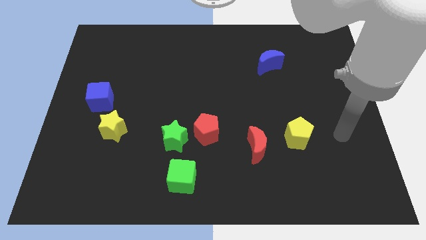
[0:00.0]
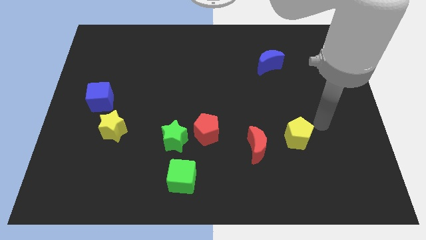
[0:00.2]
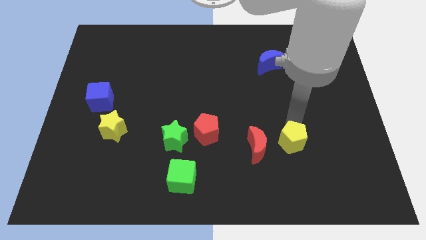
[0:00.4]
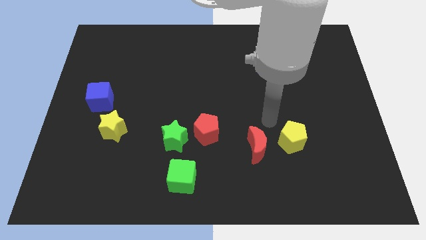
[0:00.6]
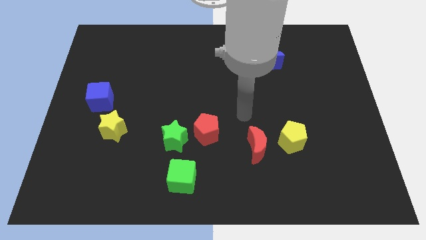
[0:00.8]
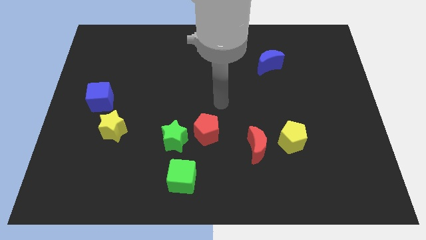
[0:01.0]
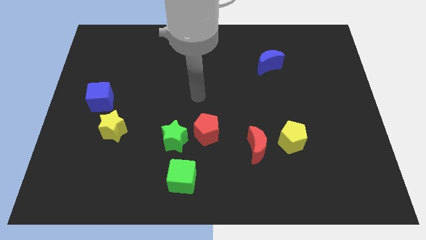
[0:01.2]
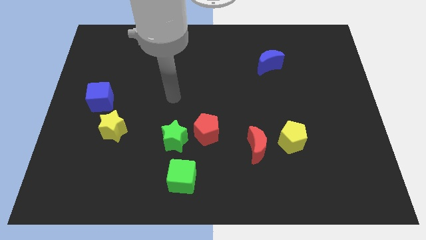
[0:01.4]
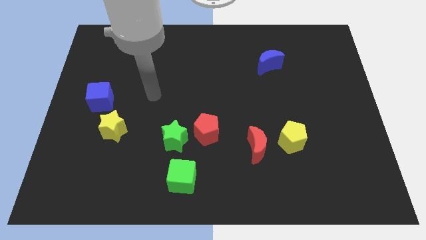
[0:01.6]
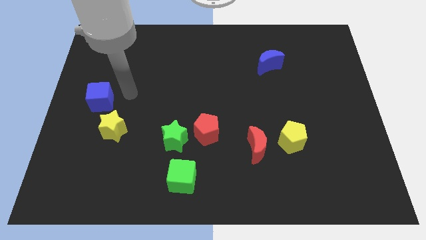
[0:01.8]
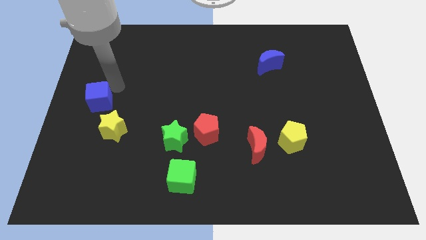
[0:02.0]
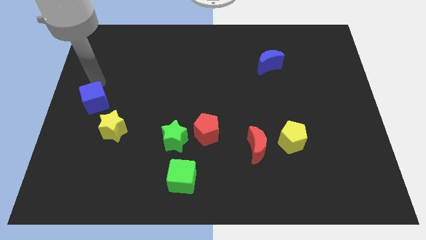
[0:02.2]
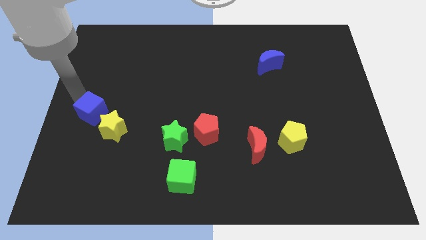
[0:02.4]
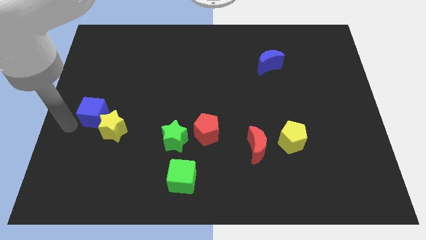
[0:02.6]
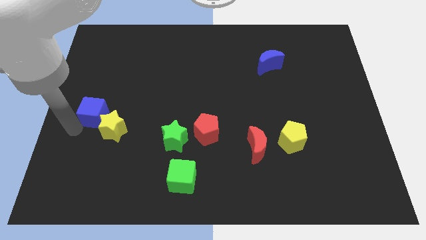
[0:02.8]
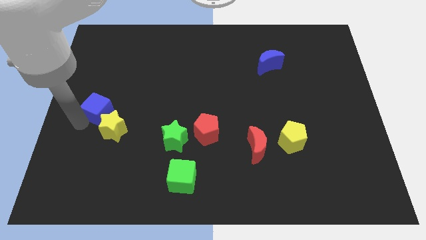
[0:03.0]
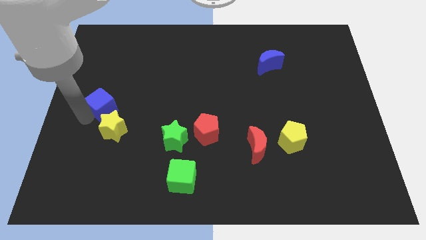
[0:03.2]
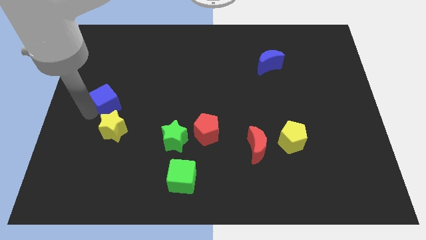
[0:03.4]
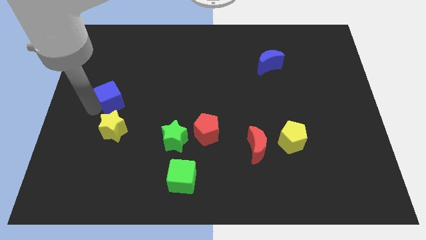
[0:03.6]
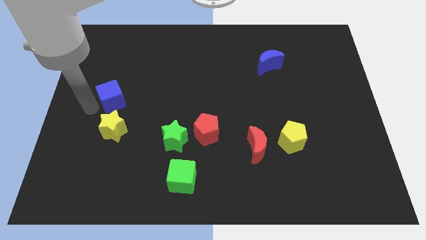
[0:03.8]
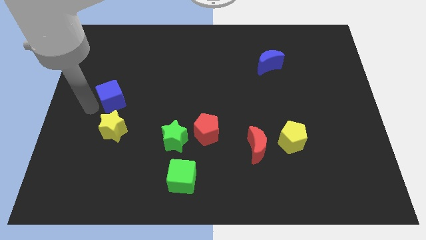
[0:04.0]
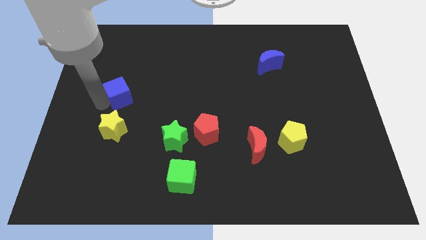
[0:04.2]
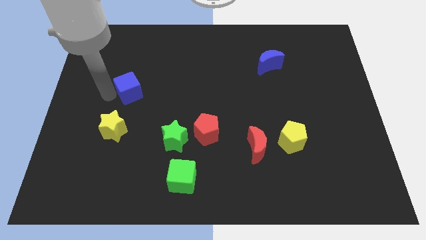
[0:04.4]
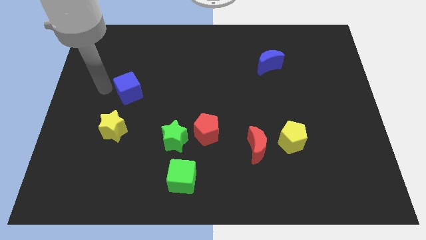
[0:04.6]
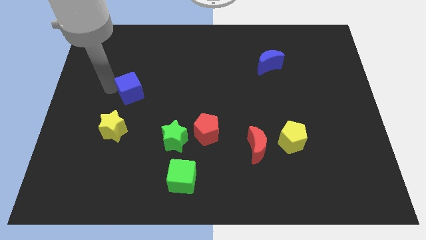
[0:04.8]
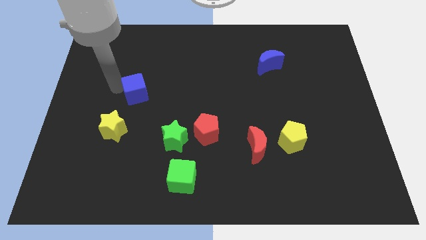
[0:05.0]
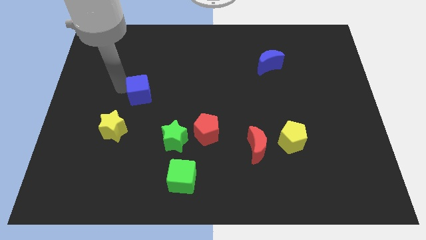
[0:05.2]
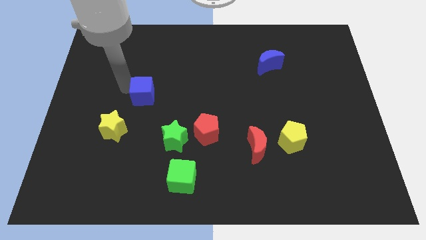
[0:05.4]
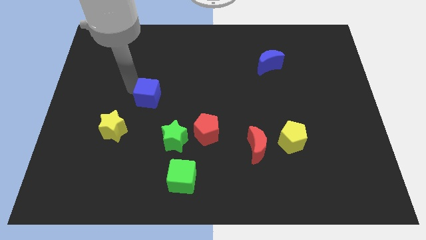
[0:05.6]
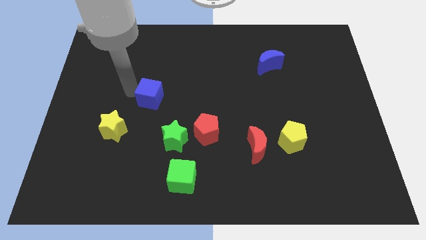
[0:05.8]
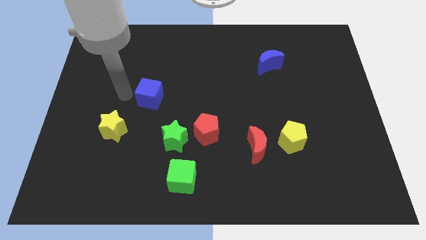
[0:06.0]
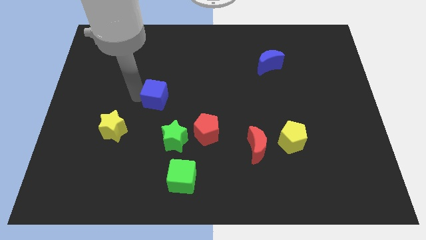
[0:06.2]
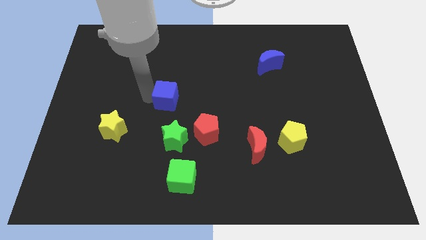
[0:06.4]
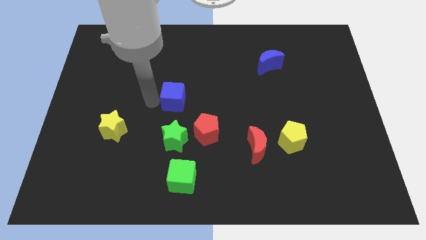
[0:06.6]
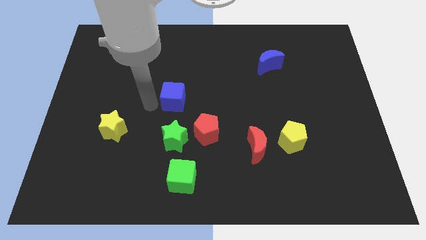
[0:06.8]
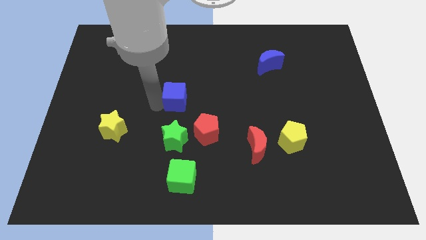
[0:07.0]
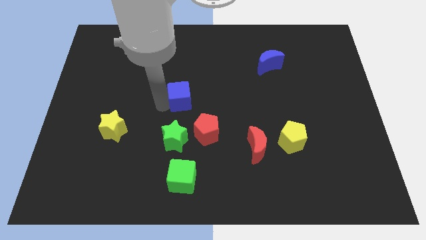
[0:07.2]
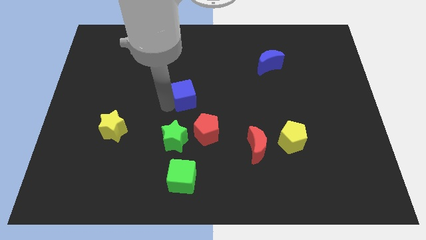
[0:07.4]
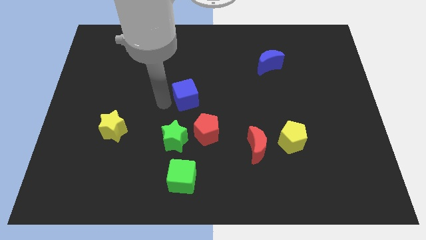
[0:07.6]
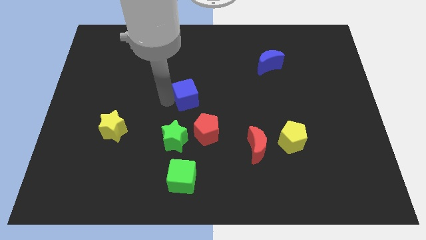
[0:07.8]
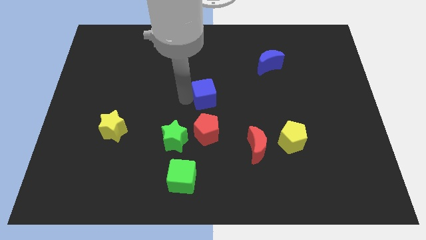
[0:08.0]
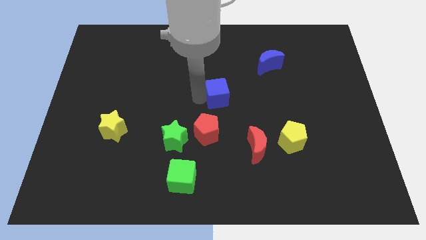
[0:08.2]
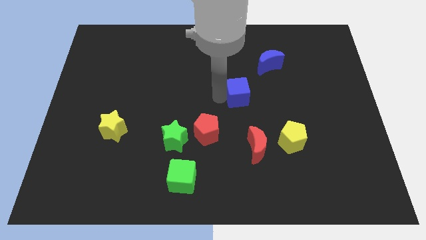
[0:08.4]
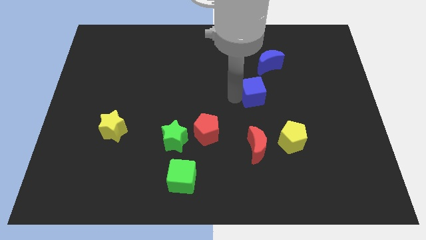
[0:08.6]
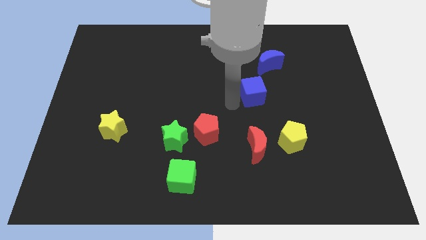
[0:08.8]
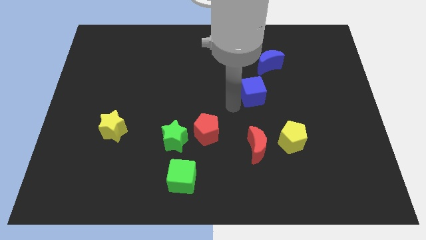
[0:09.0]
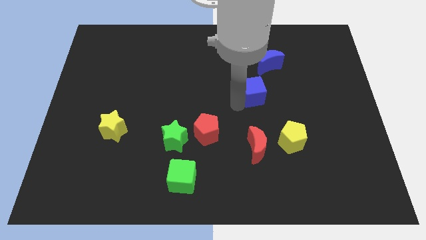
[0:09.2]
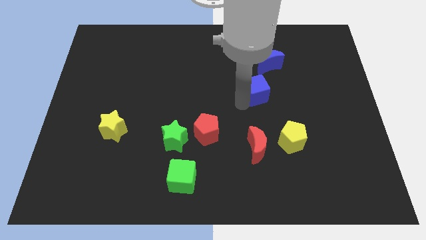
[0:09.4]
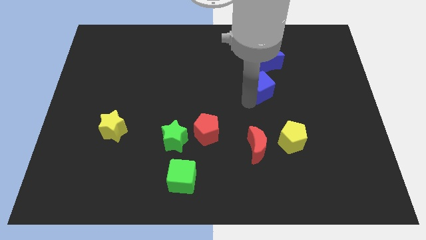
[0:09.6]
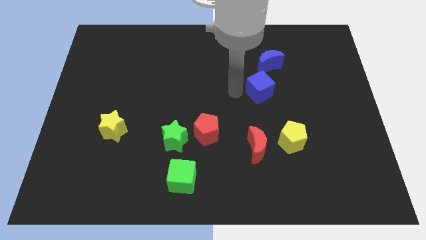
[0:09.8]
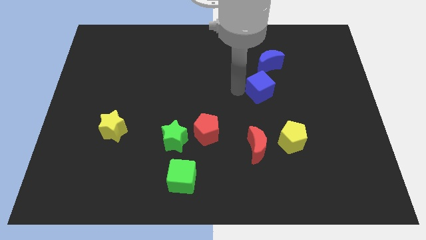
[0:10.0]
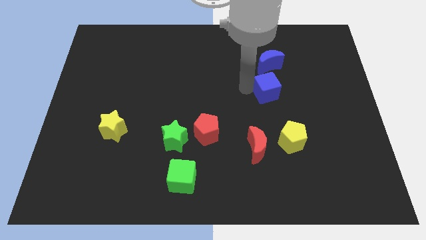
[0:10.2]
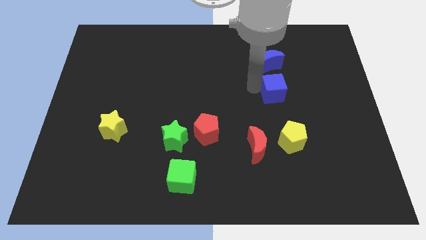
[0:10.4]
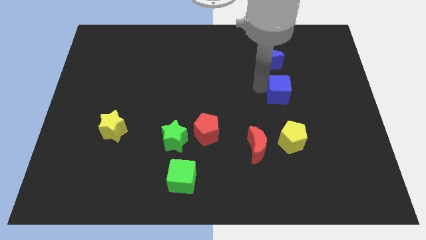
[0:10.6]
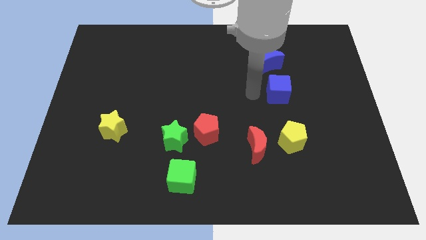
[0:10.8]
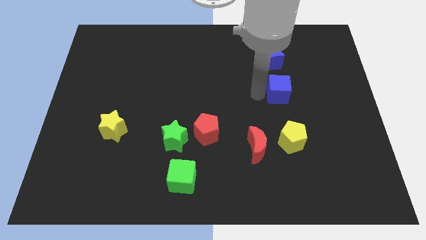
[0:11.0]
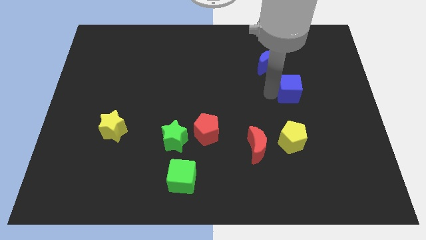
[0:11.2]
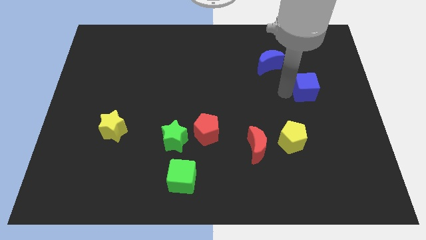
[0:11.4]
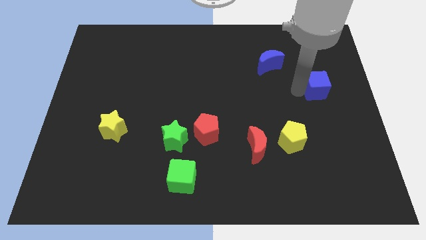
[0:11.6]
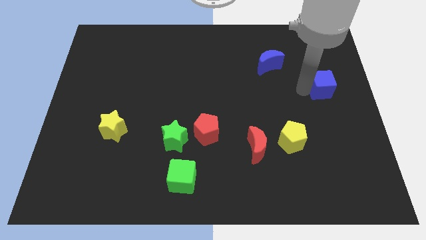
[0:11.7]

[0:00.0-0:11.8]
push the blue cube to the right side of the board
